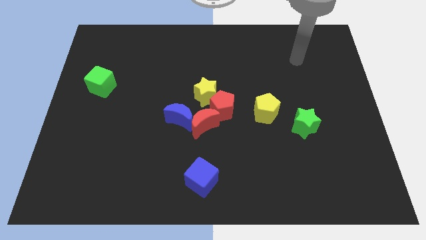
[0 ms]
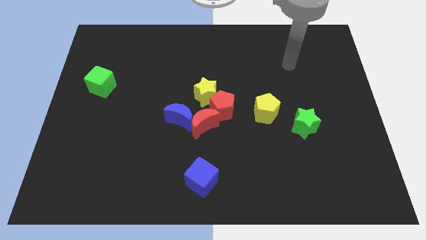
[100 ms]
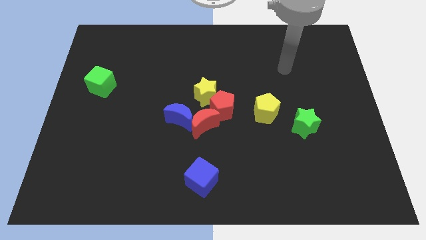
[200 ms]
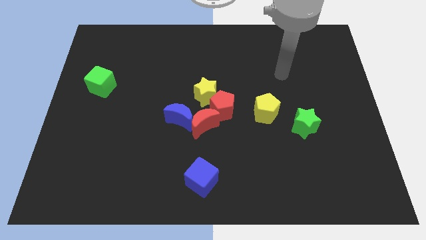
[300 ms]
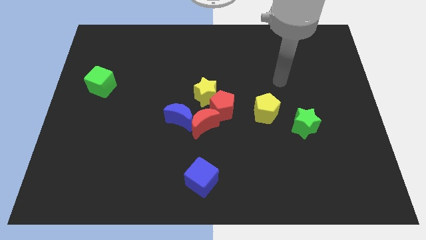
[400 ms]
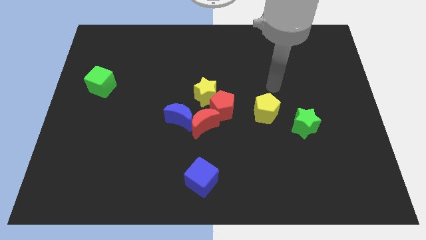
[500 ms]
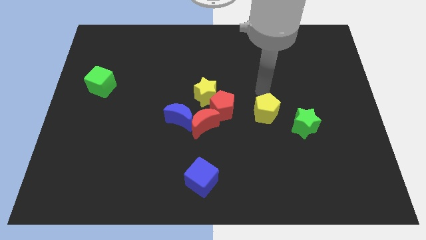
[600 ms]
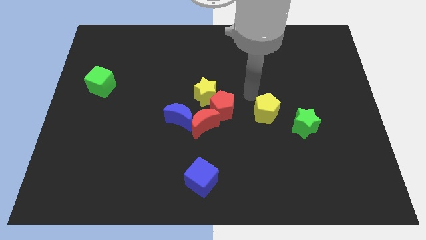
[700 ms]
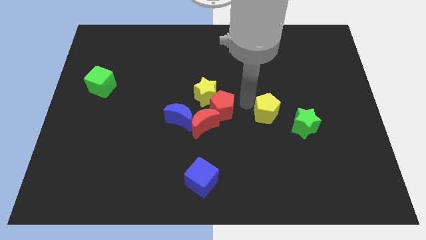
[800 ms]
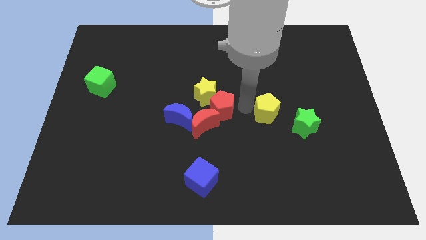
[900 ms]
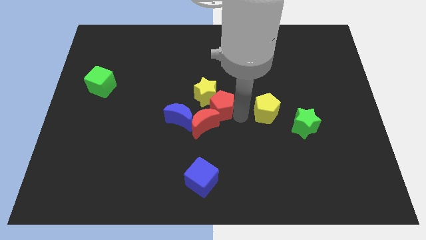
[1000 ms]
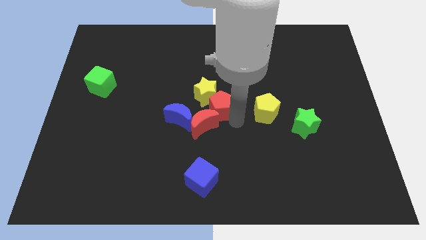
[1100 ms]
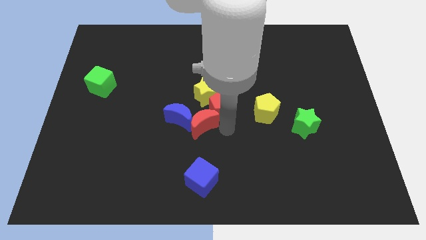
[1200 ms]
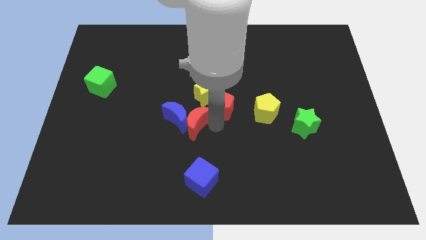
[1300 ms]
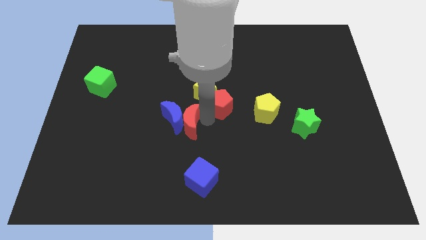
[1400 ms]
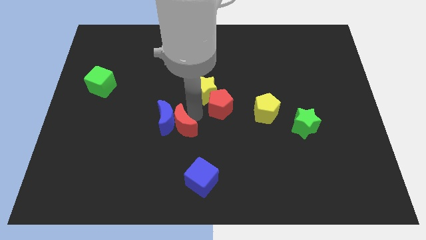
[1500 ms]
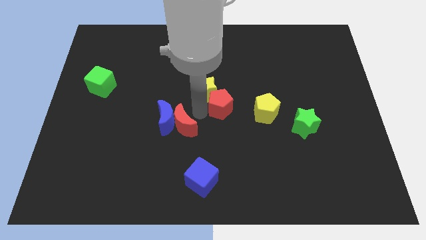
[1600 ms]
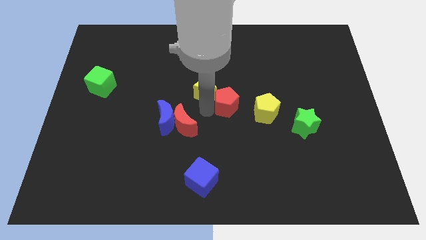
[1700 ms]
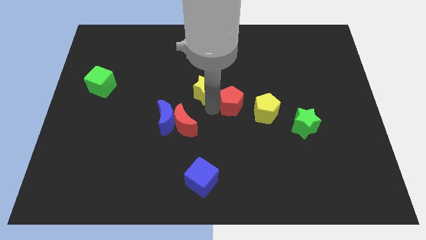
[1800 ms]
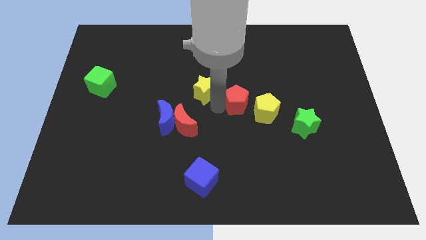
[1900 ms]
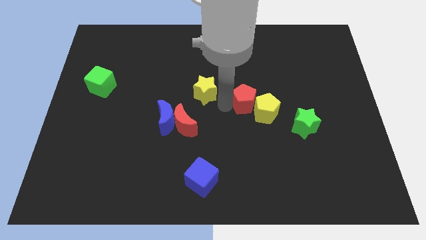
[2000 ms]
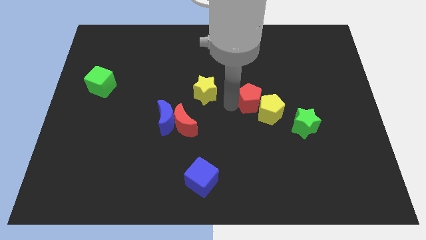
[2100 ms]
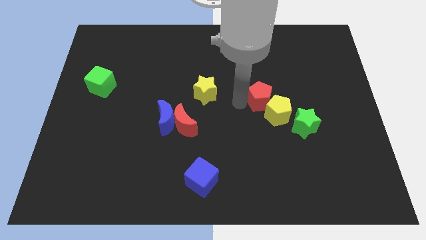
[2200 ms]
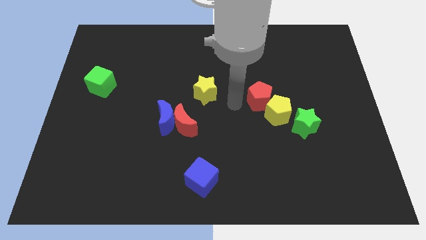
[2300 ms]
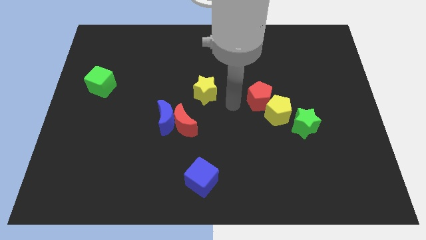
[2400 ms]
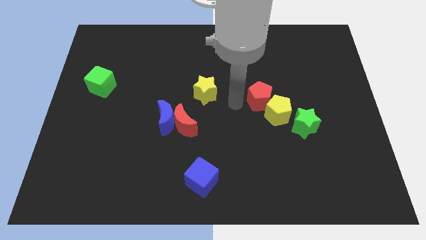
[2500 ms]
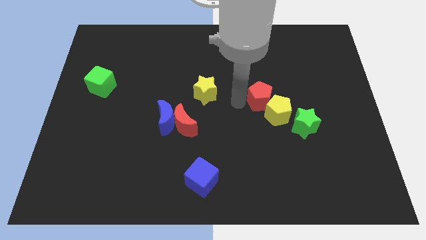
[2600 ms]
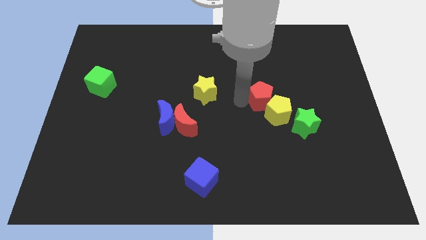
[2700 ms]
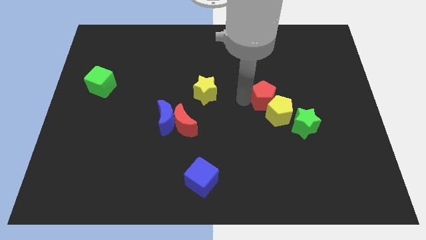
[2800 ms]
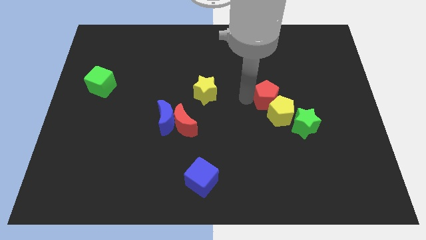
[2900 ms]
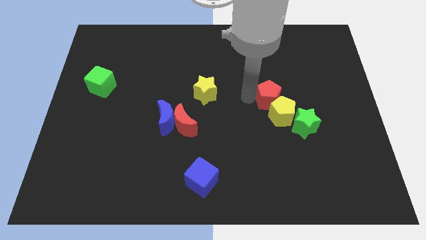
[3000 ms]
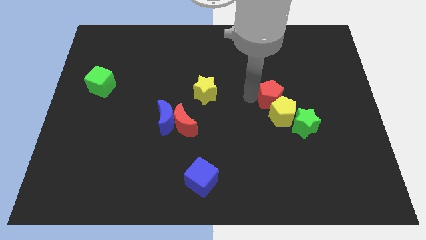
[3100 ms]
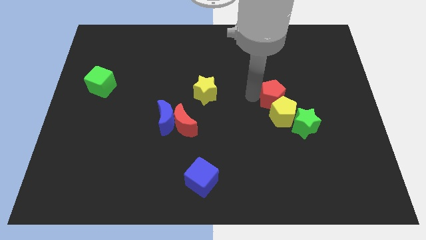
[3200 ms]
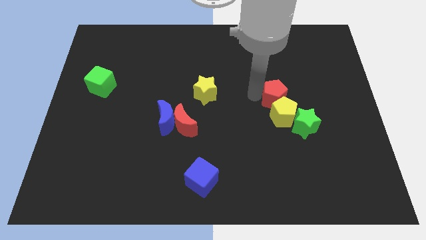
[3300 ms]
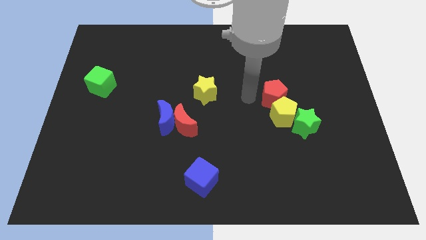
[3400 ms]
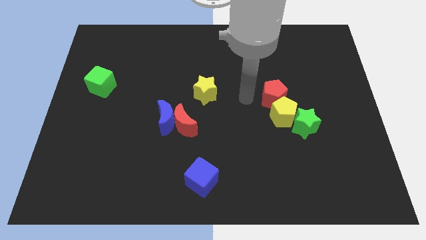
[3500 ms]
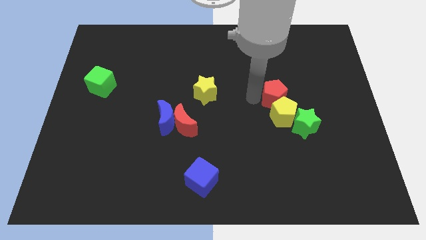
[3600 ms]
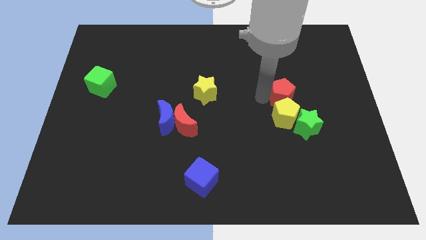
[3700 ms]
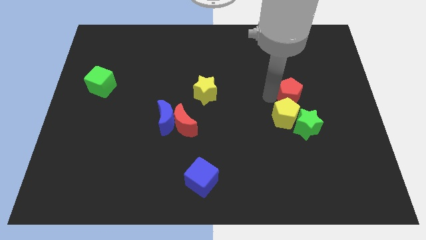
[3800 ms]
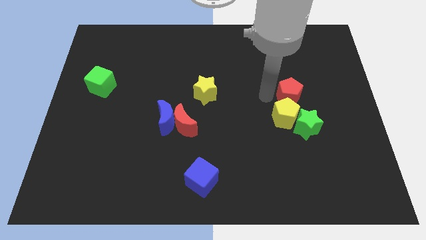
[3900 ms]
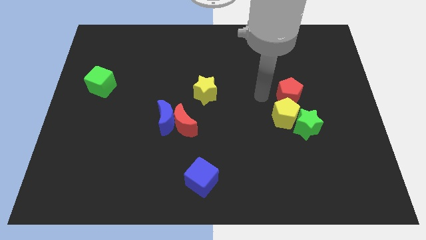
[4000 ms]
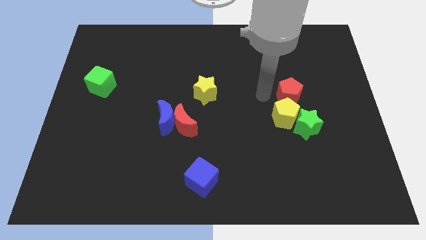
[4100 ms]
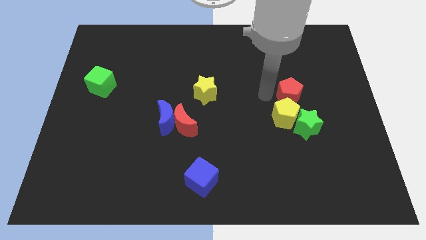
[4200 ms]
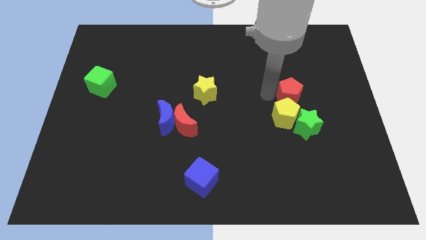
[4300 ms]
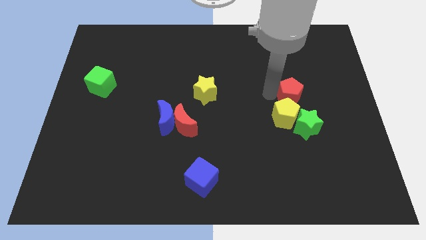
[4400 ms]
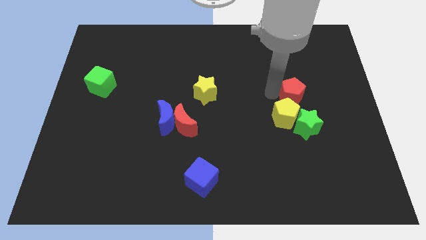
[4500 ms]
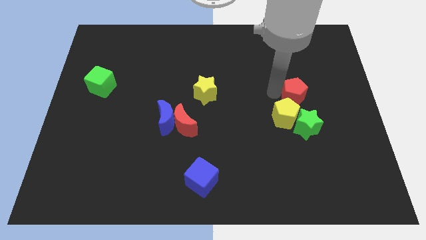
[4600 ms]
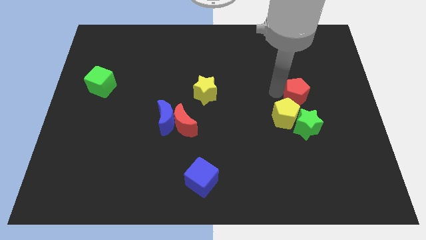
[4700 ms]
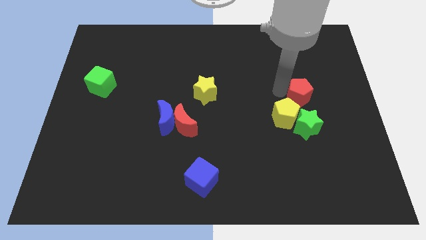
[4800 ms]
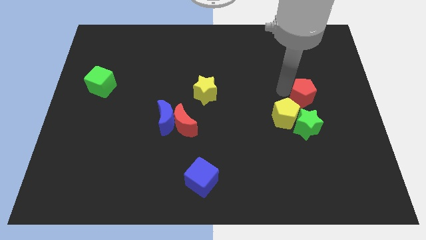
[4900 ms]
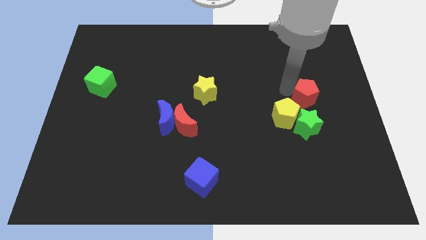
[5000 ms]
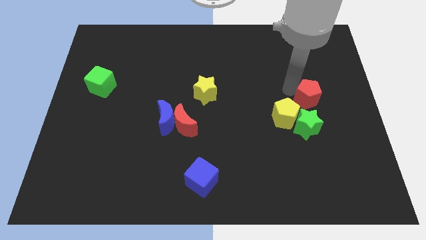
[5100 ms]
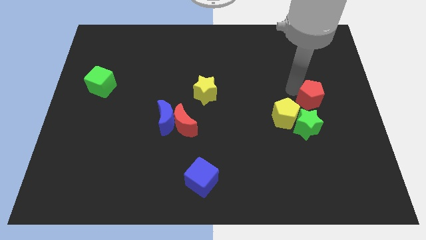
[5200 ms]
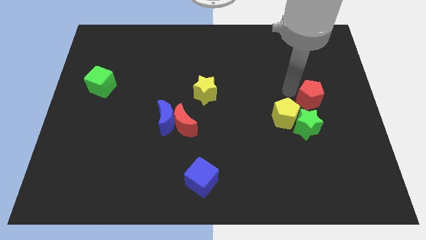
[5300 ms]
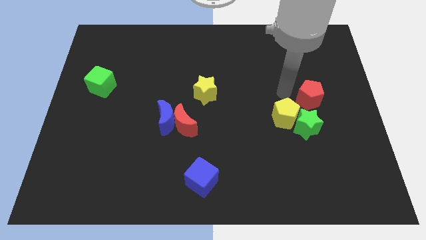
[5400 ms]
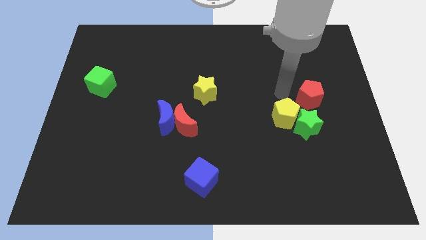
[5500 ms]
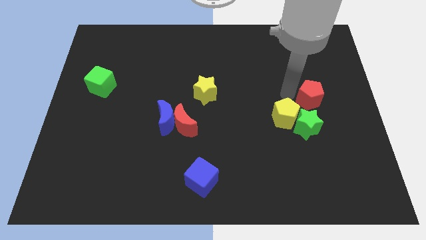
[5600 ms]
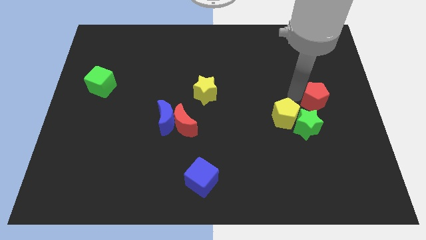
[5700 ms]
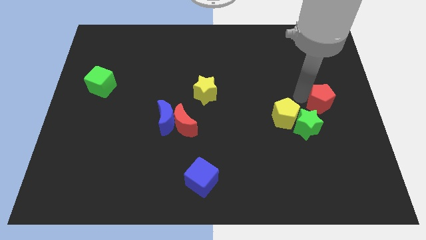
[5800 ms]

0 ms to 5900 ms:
put the red pentagon to the right side

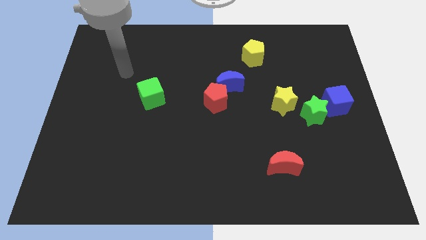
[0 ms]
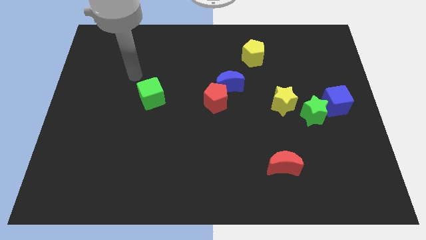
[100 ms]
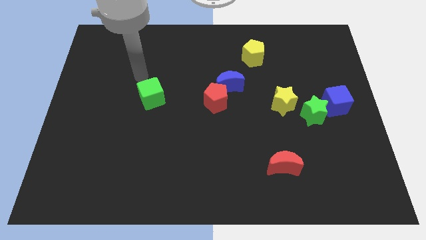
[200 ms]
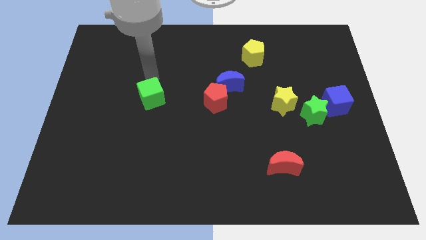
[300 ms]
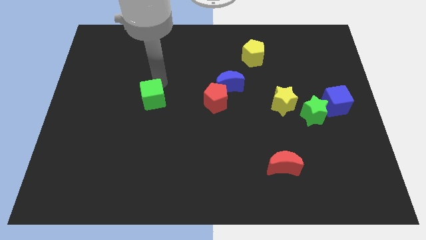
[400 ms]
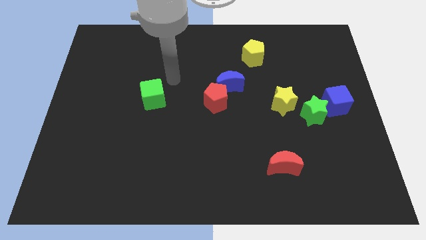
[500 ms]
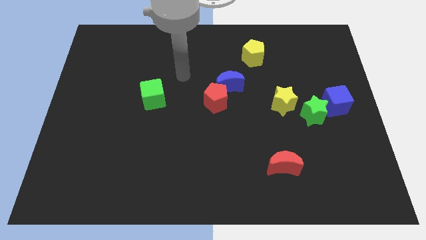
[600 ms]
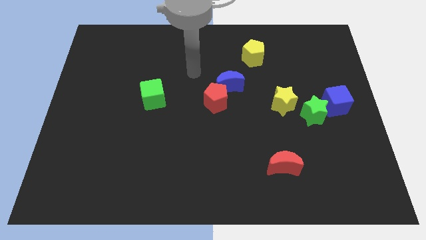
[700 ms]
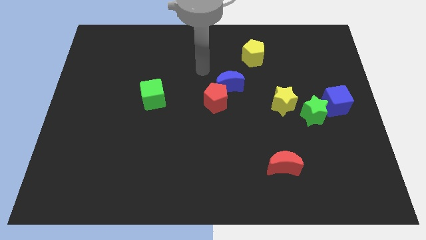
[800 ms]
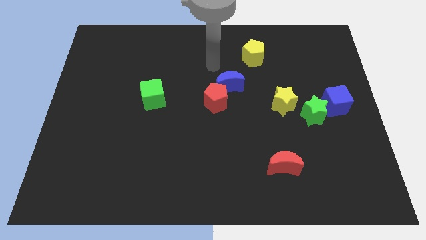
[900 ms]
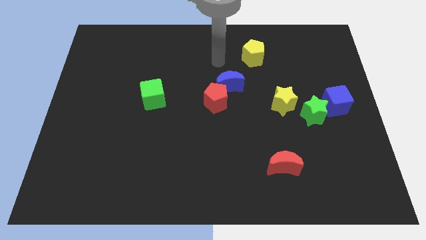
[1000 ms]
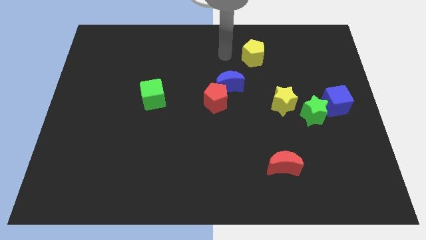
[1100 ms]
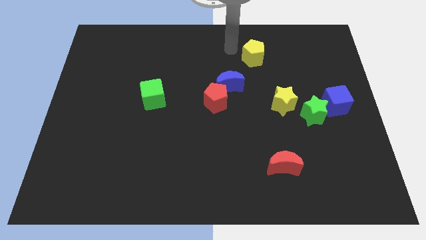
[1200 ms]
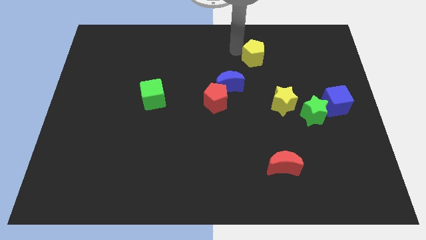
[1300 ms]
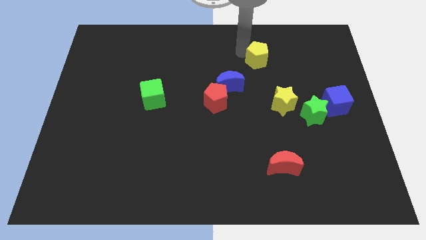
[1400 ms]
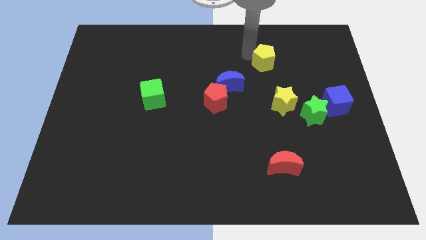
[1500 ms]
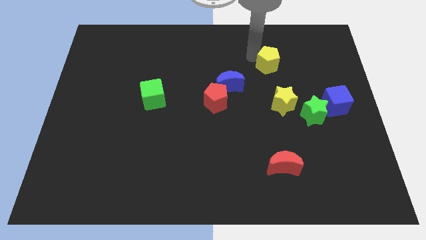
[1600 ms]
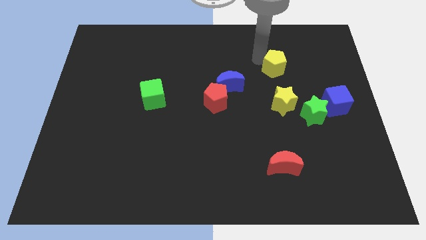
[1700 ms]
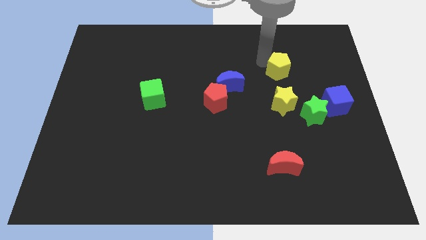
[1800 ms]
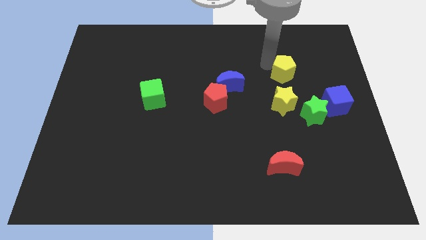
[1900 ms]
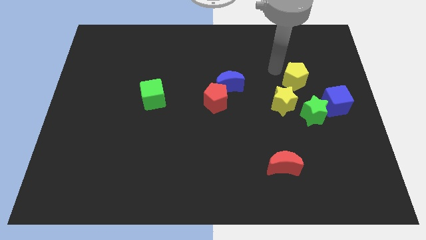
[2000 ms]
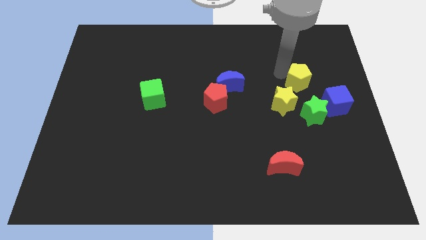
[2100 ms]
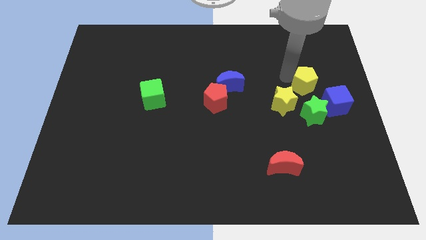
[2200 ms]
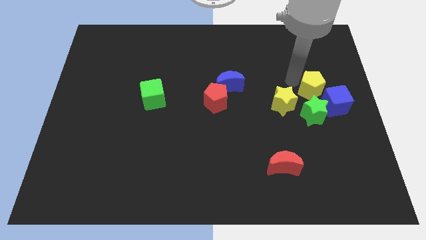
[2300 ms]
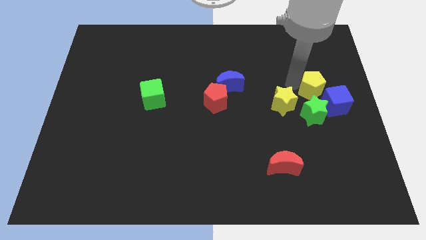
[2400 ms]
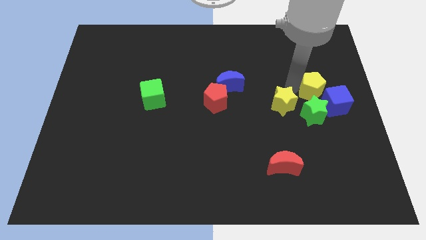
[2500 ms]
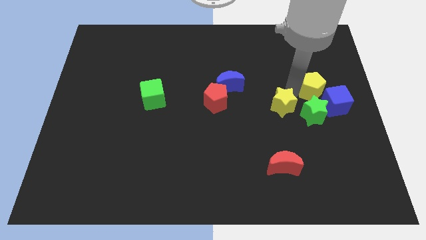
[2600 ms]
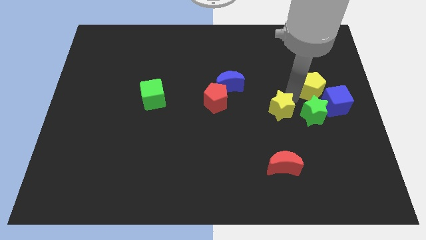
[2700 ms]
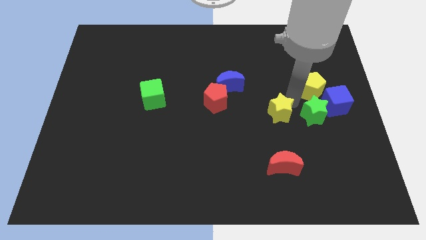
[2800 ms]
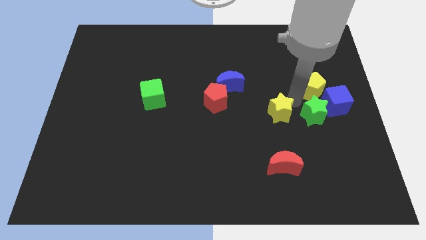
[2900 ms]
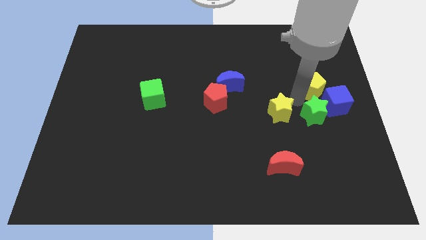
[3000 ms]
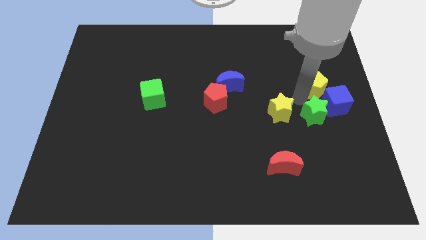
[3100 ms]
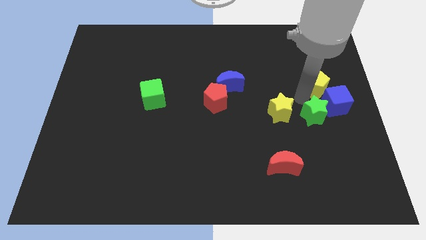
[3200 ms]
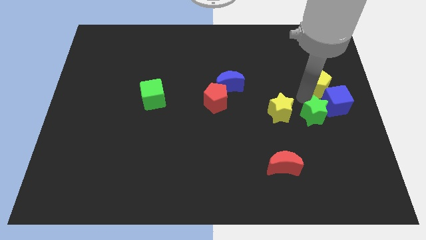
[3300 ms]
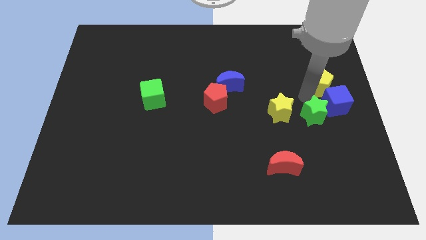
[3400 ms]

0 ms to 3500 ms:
push the yellow pentagon to the center right
